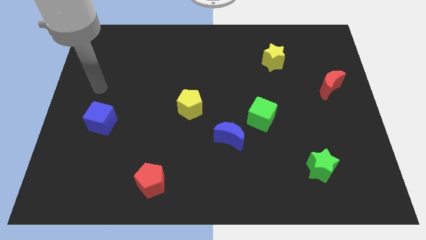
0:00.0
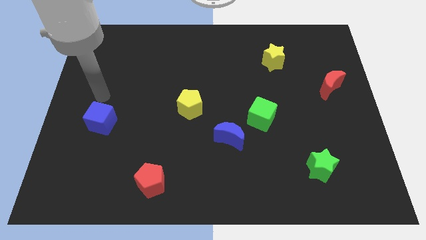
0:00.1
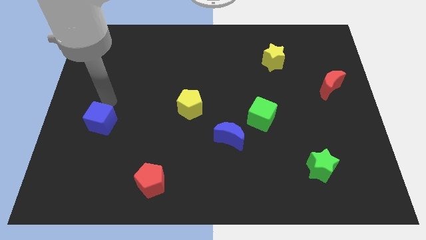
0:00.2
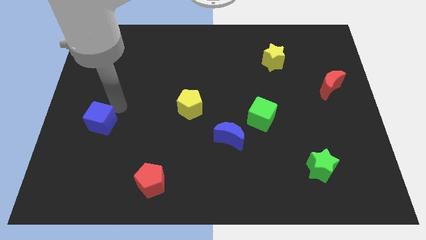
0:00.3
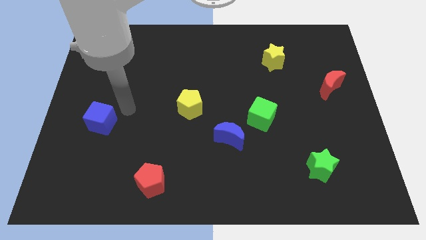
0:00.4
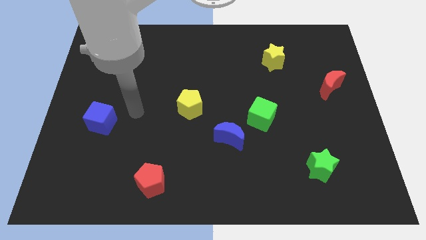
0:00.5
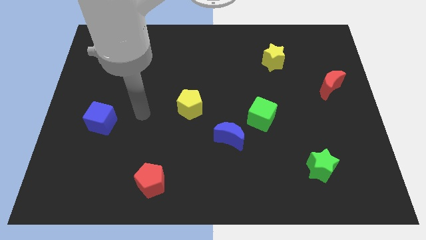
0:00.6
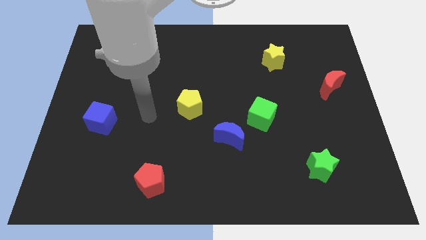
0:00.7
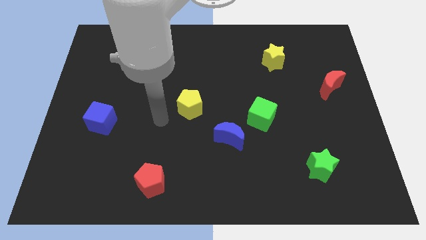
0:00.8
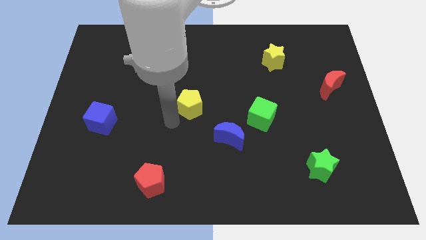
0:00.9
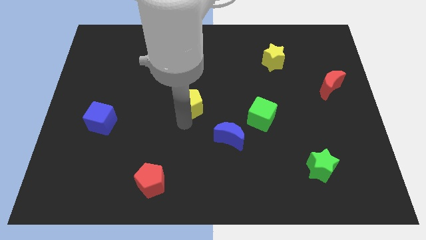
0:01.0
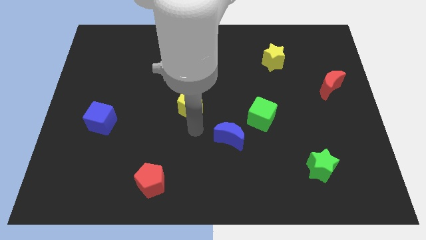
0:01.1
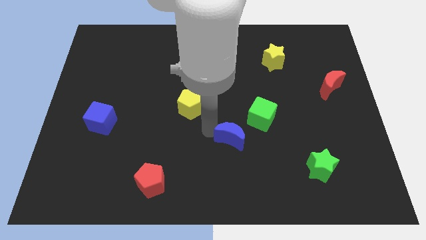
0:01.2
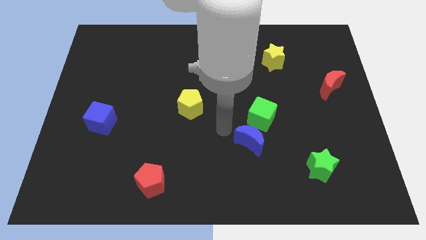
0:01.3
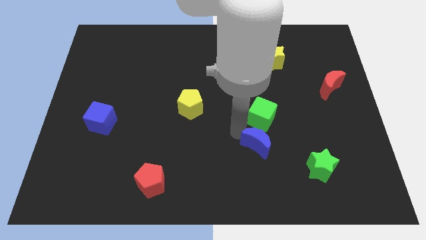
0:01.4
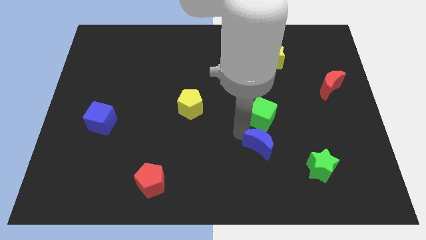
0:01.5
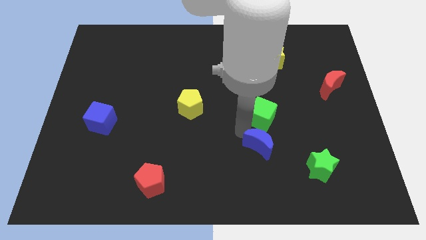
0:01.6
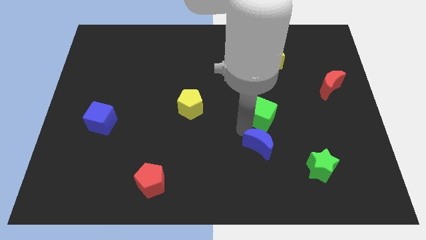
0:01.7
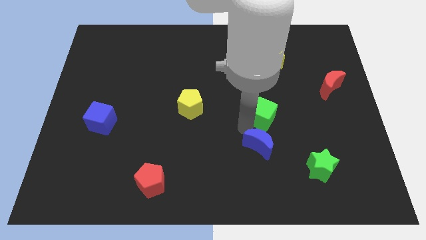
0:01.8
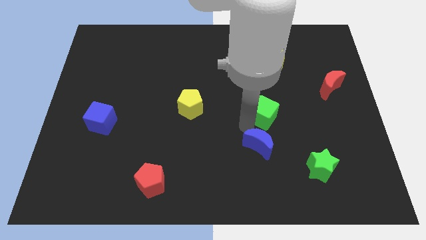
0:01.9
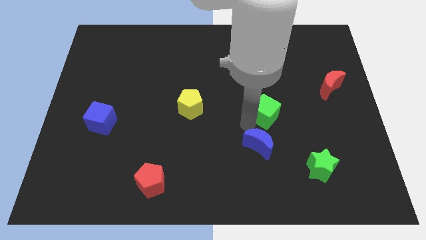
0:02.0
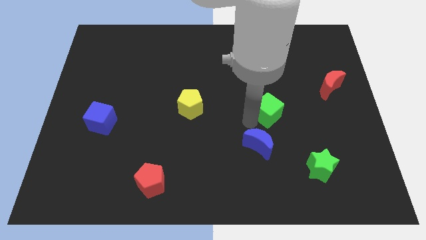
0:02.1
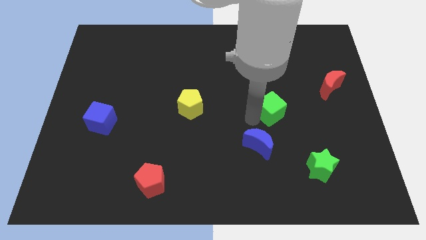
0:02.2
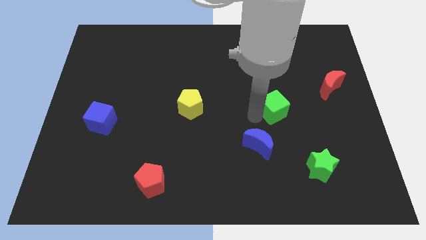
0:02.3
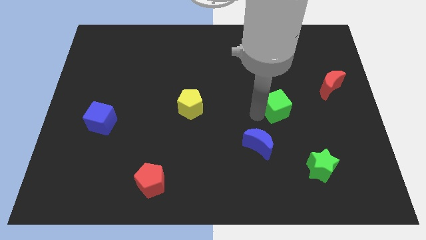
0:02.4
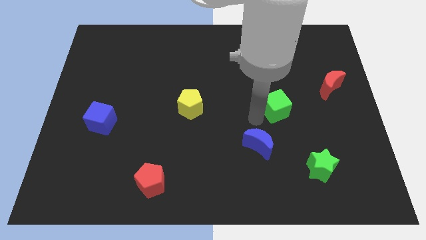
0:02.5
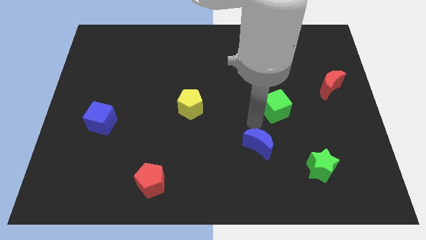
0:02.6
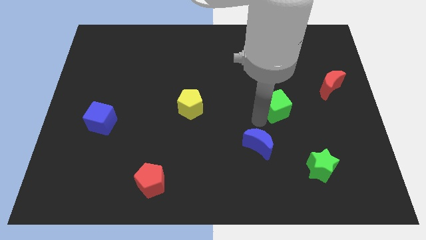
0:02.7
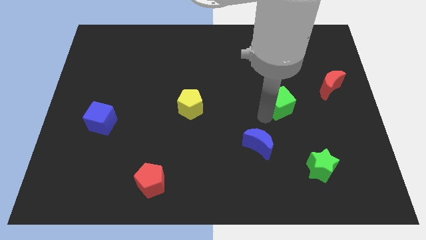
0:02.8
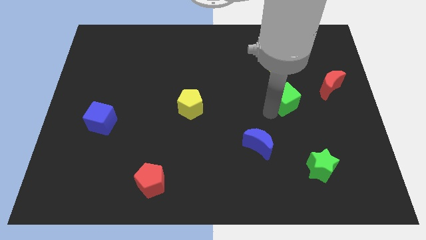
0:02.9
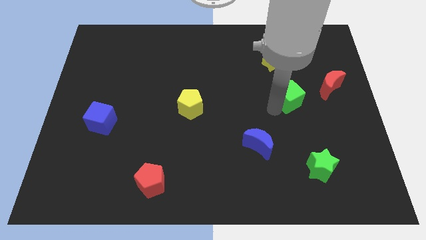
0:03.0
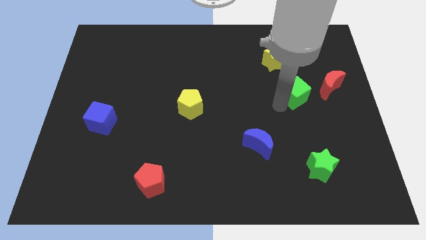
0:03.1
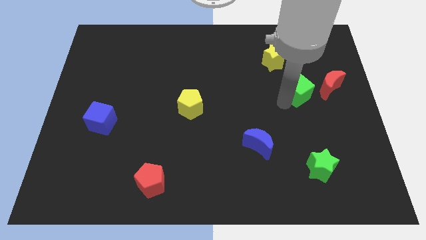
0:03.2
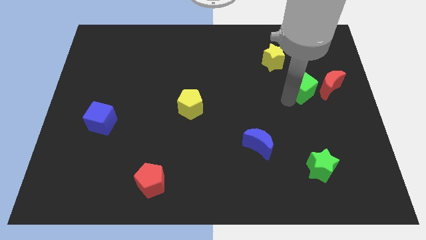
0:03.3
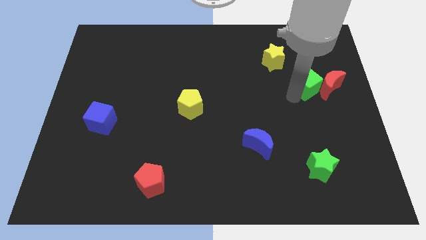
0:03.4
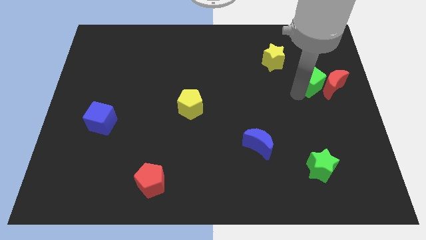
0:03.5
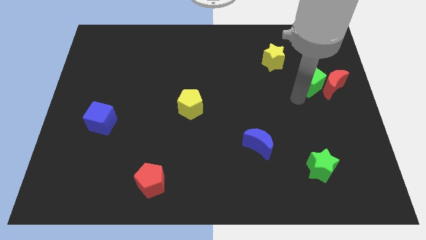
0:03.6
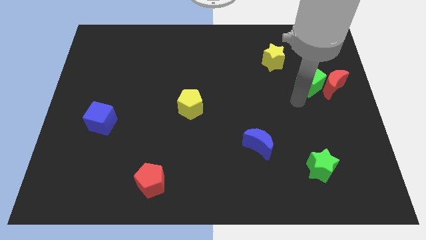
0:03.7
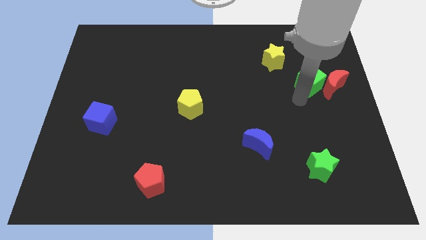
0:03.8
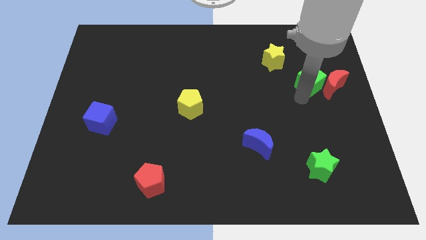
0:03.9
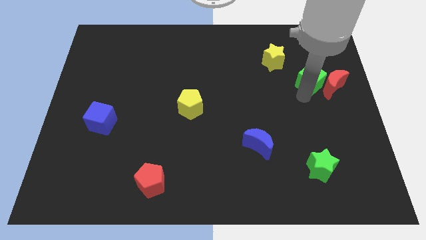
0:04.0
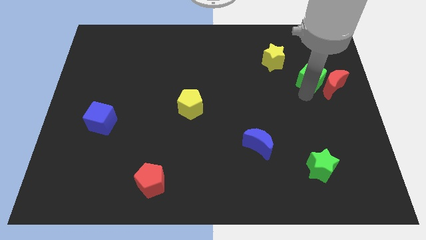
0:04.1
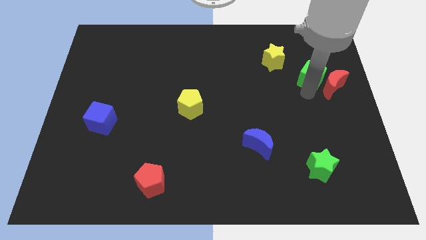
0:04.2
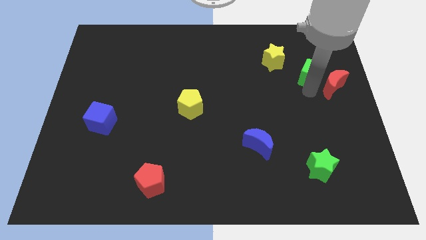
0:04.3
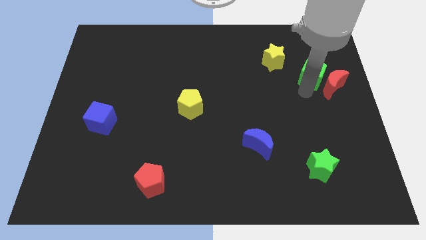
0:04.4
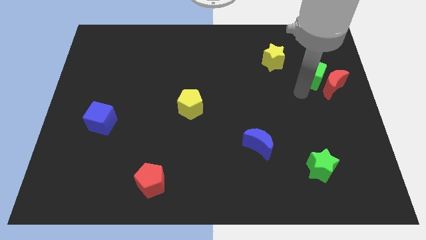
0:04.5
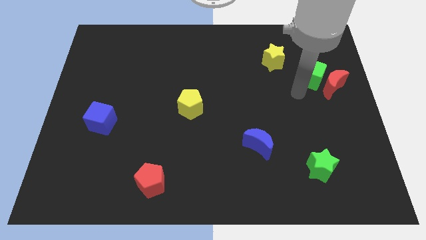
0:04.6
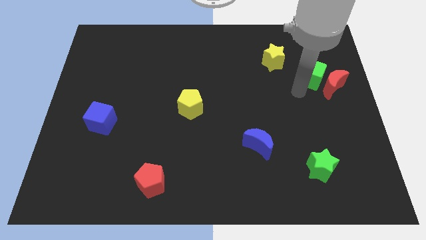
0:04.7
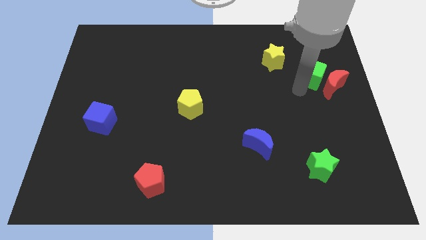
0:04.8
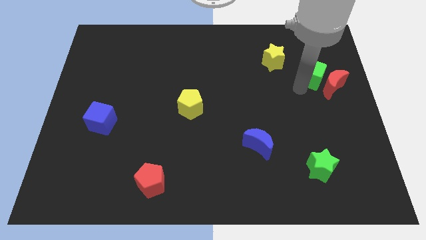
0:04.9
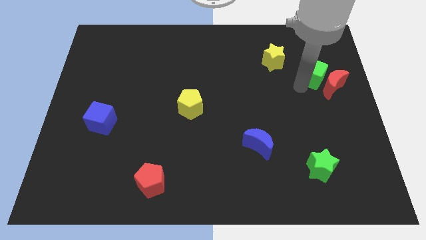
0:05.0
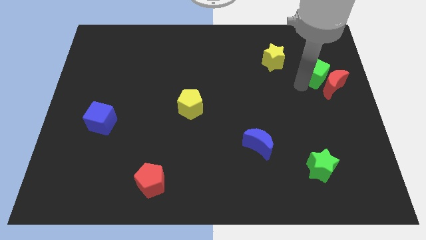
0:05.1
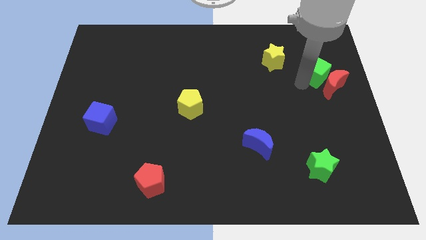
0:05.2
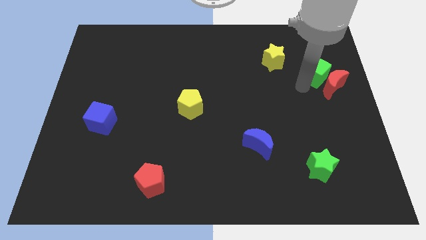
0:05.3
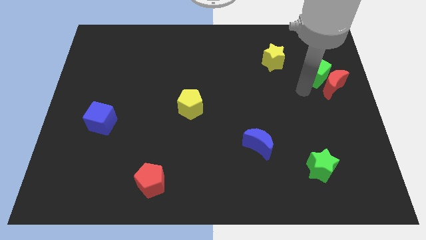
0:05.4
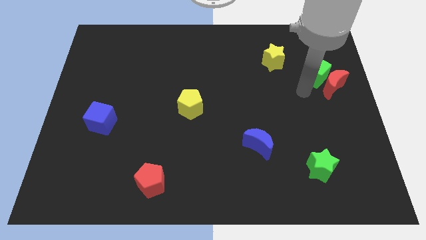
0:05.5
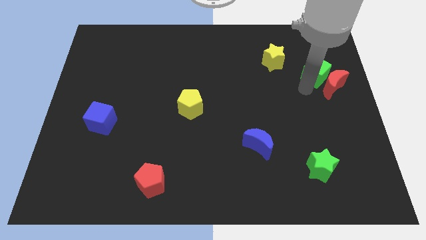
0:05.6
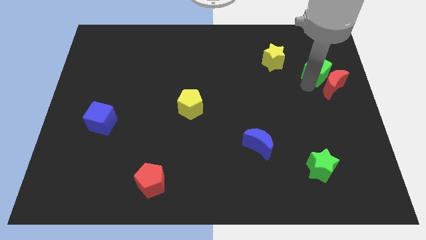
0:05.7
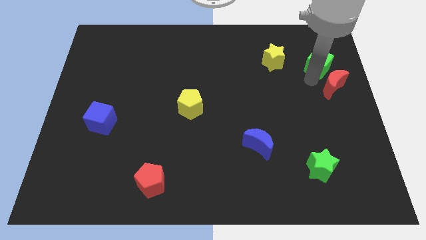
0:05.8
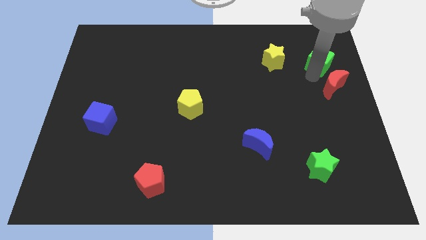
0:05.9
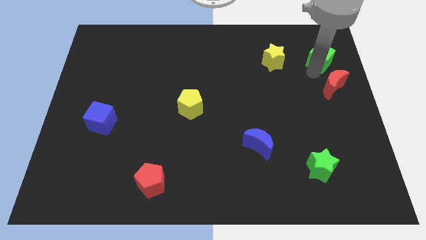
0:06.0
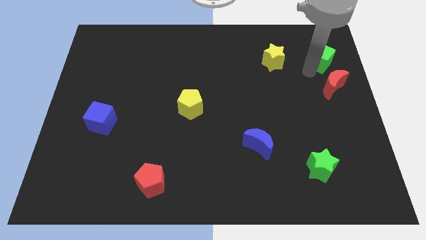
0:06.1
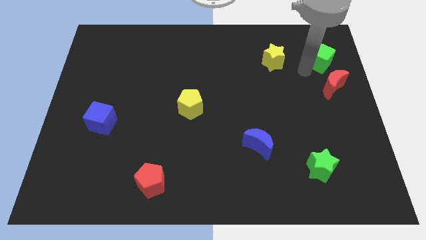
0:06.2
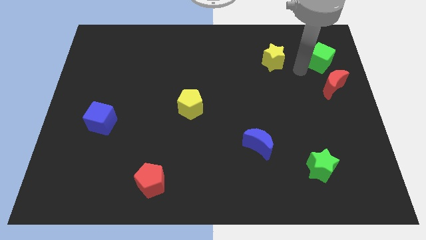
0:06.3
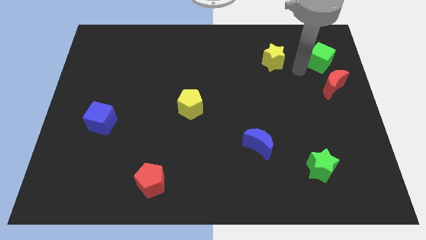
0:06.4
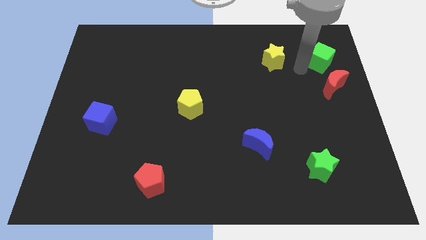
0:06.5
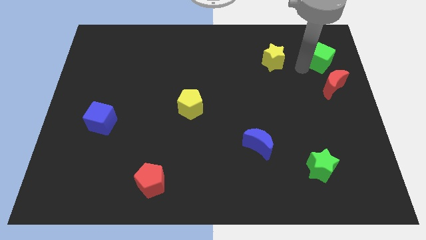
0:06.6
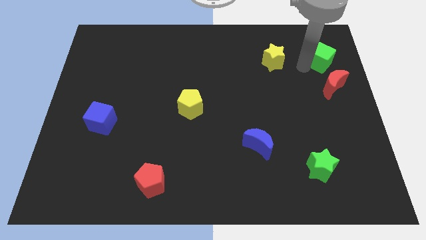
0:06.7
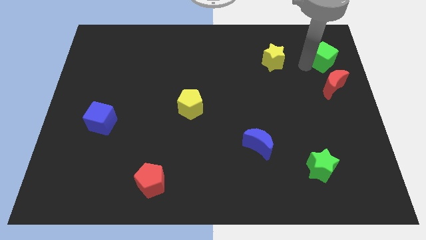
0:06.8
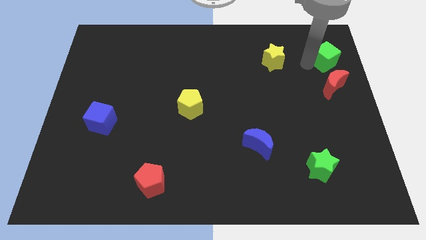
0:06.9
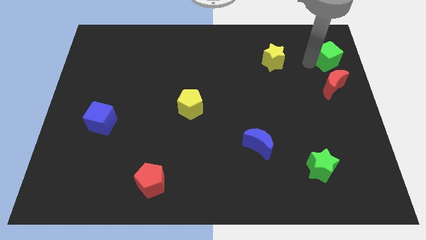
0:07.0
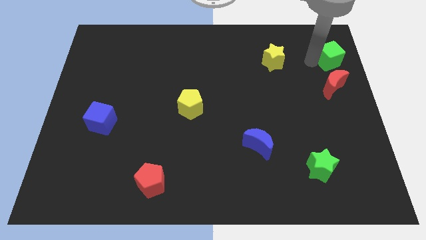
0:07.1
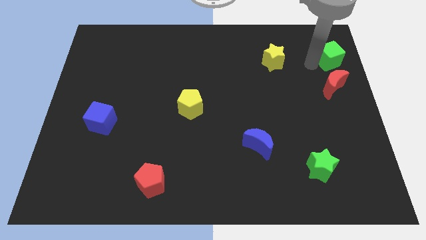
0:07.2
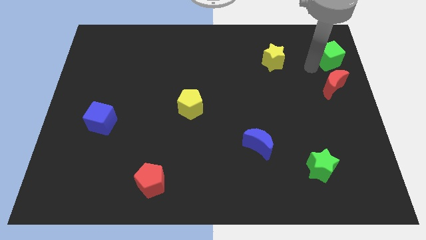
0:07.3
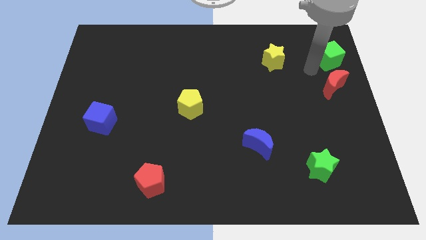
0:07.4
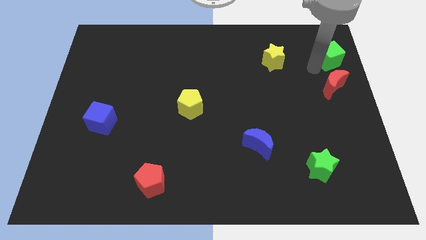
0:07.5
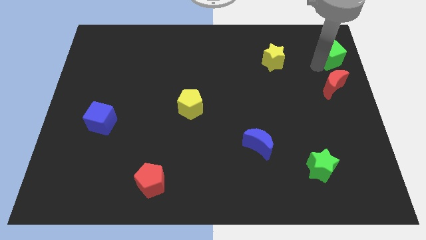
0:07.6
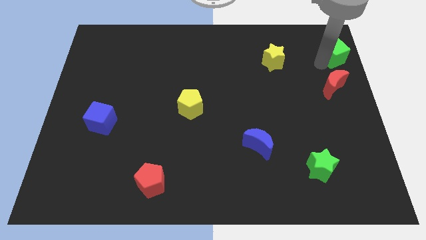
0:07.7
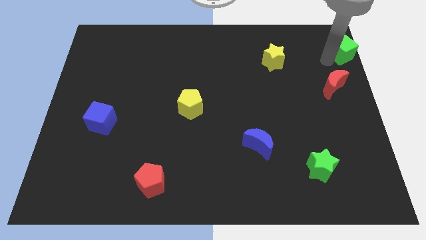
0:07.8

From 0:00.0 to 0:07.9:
slide the green cube to the upper right corner
